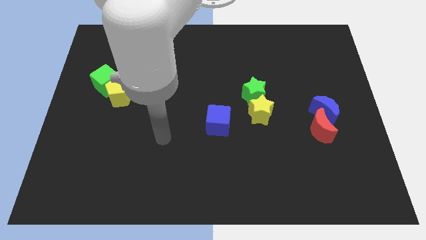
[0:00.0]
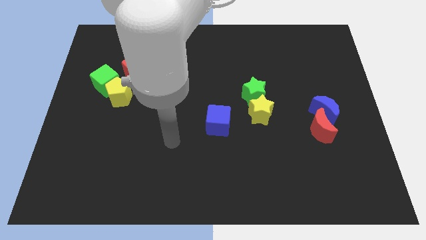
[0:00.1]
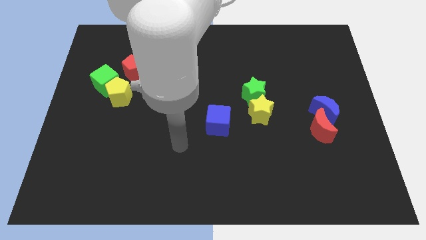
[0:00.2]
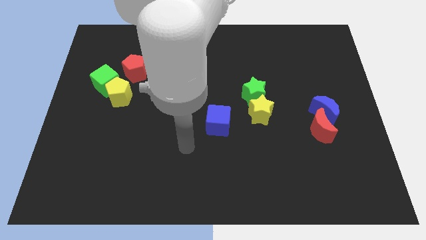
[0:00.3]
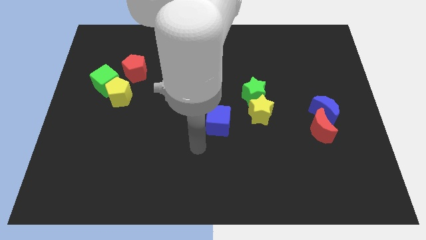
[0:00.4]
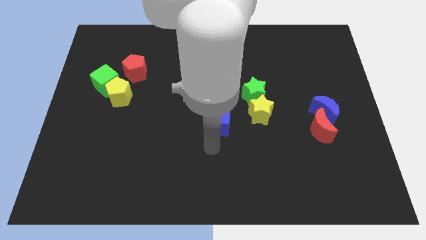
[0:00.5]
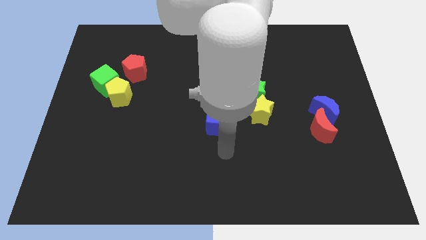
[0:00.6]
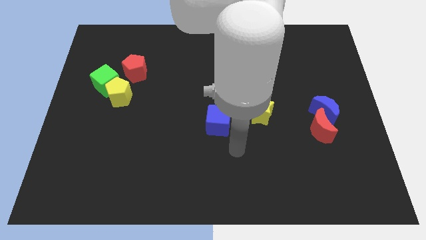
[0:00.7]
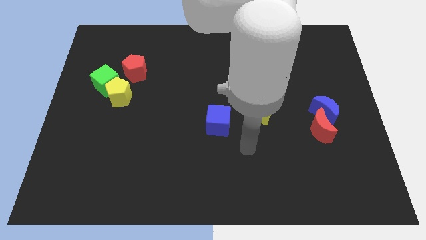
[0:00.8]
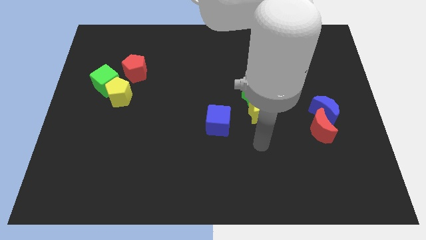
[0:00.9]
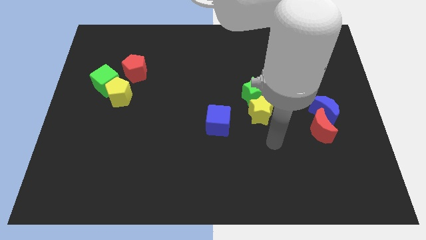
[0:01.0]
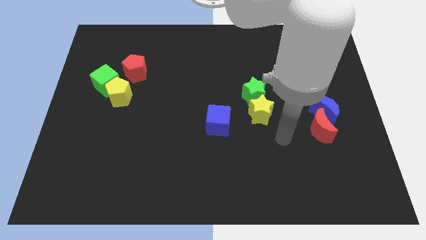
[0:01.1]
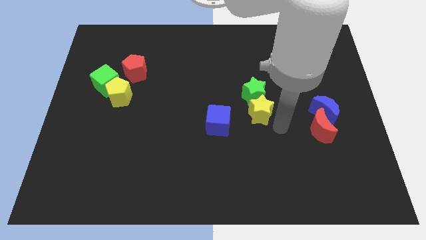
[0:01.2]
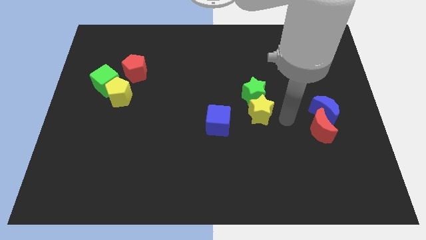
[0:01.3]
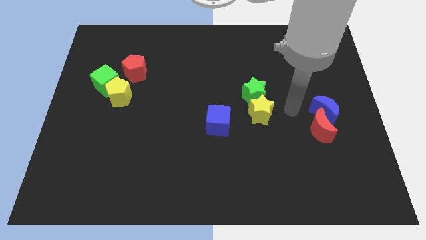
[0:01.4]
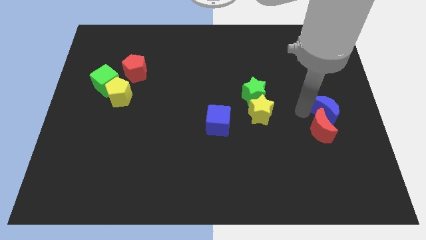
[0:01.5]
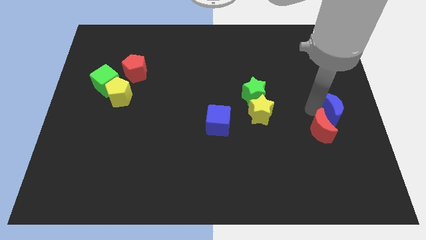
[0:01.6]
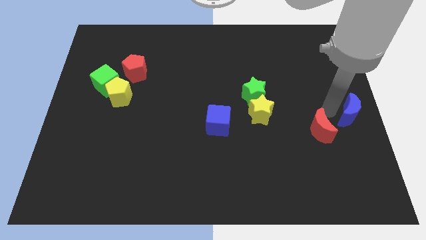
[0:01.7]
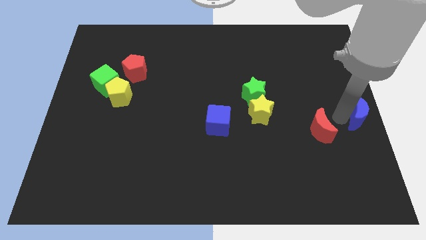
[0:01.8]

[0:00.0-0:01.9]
separate the red moon from the blue moon

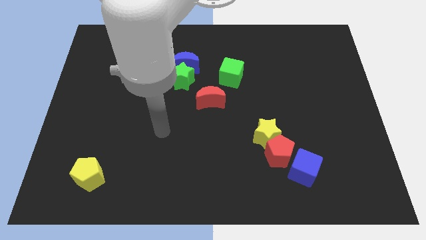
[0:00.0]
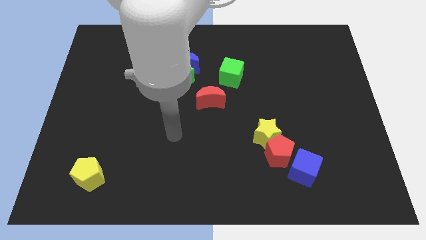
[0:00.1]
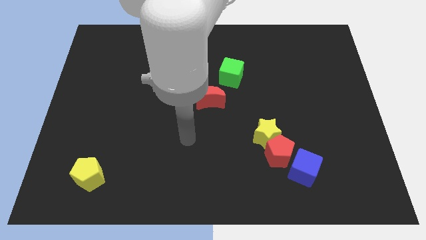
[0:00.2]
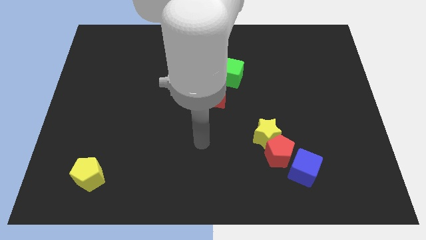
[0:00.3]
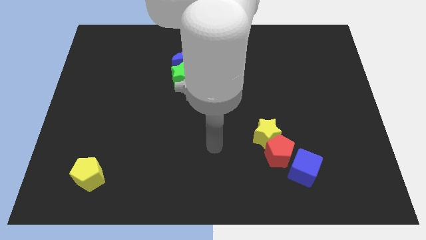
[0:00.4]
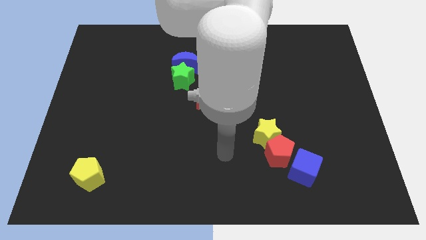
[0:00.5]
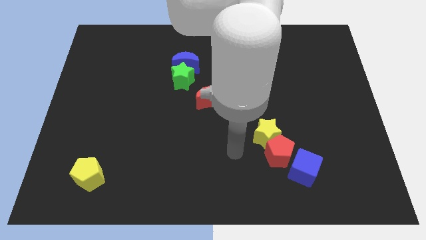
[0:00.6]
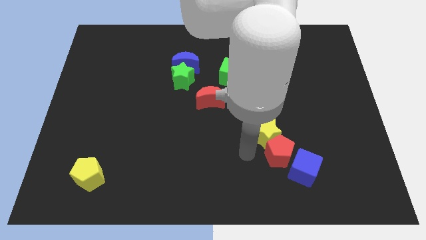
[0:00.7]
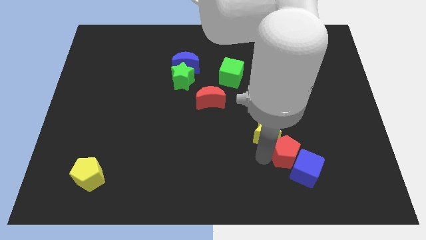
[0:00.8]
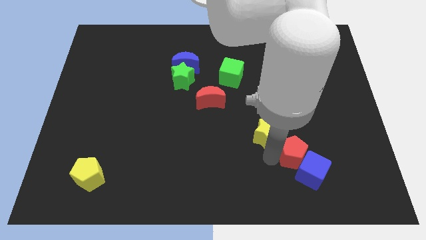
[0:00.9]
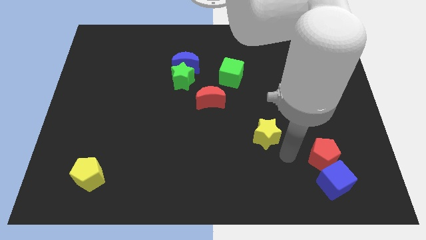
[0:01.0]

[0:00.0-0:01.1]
pull the yellow star apart from the red pentagon

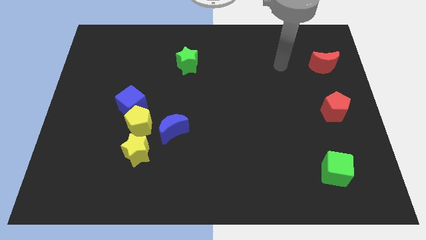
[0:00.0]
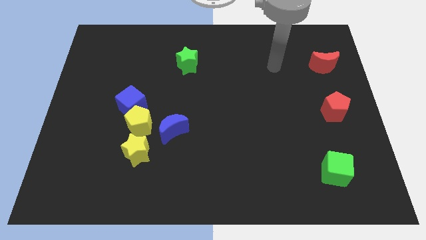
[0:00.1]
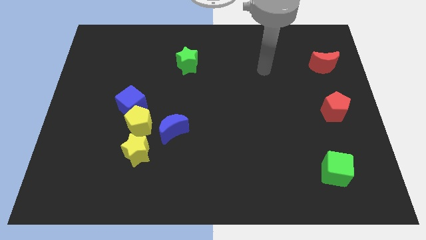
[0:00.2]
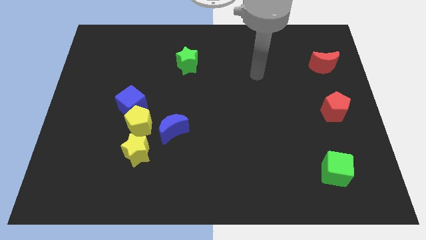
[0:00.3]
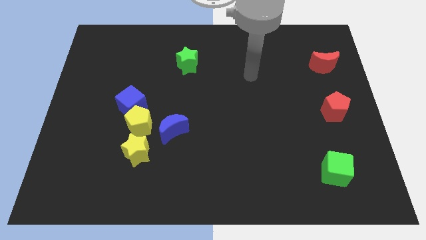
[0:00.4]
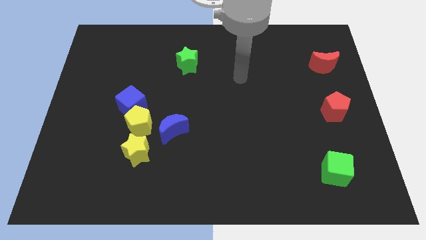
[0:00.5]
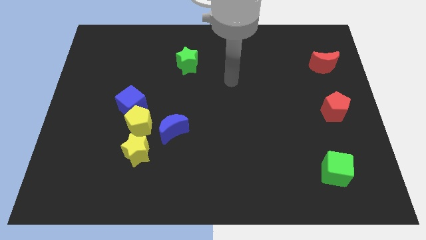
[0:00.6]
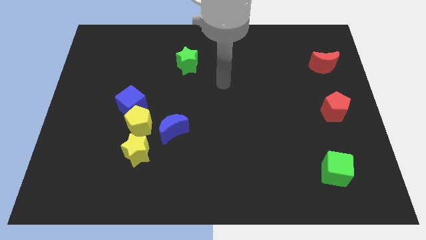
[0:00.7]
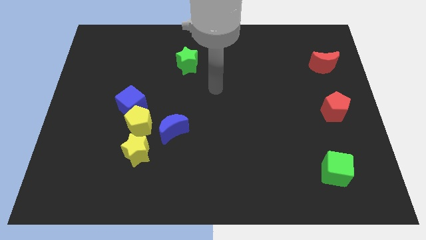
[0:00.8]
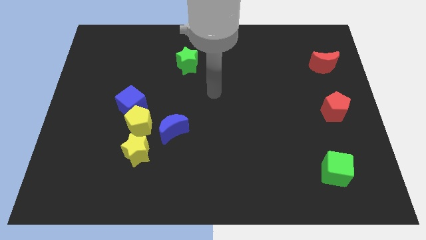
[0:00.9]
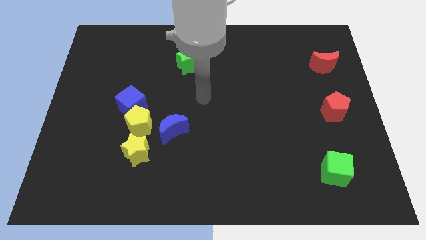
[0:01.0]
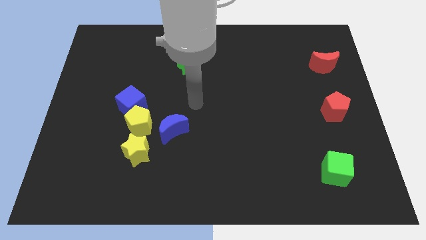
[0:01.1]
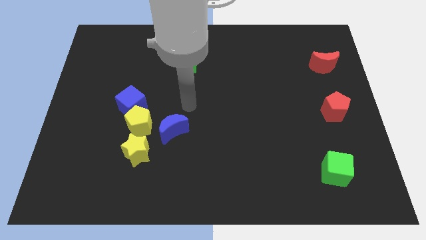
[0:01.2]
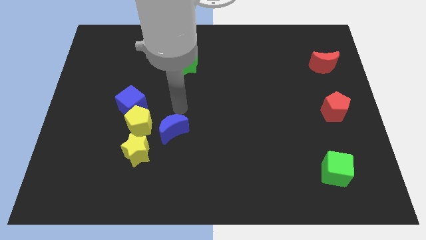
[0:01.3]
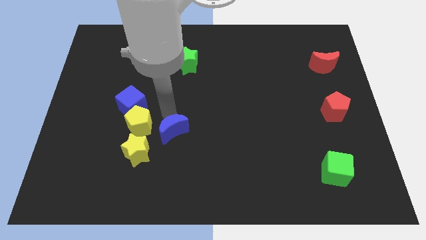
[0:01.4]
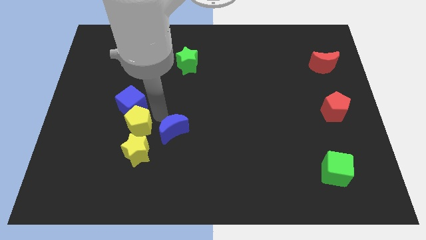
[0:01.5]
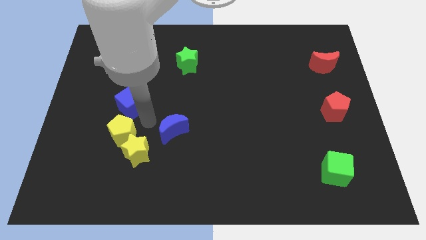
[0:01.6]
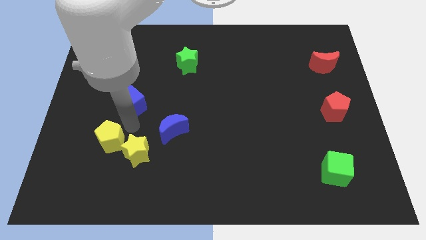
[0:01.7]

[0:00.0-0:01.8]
move the blue cube away from the yellow pentagon

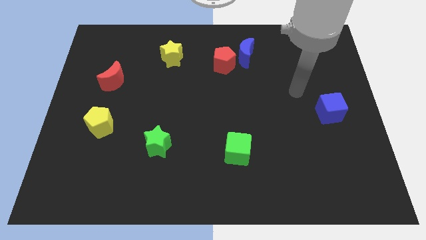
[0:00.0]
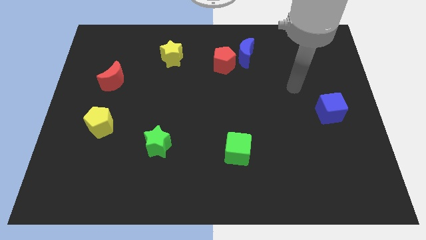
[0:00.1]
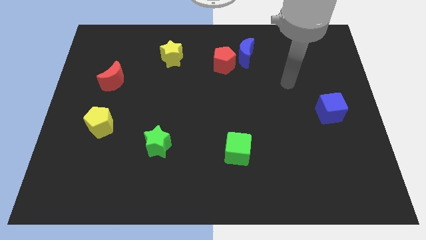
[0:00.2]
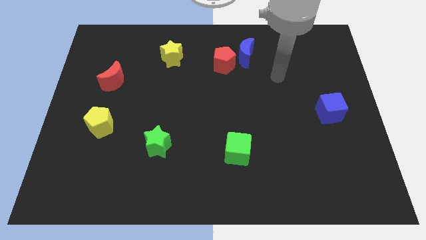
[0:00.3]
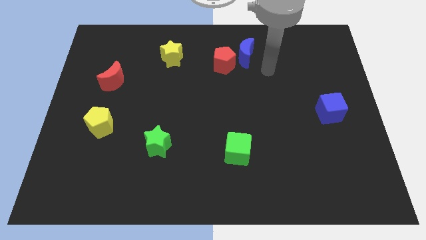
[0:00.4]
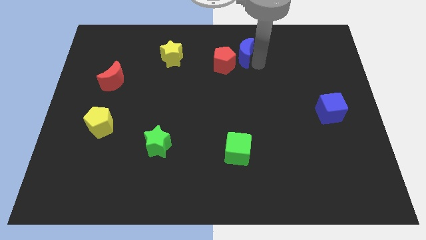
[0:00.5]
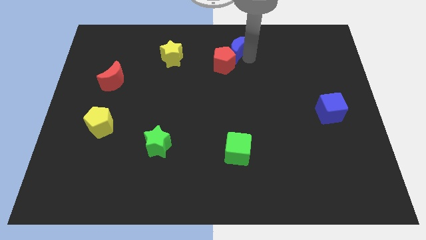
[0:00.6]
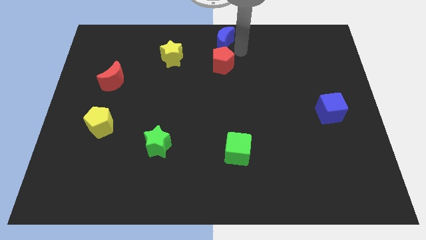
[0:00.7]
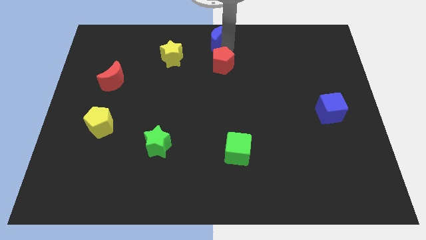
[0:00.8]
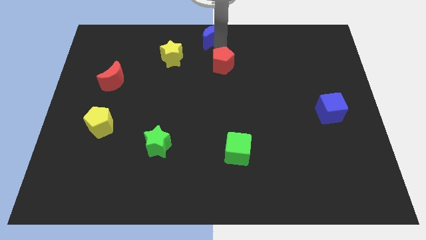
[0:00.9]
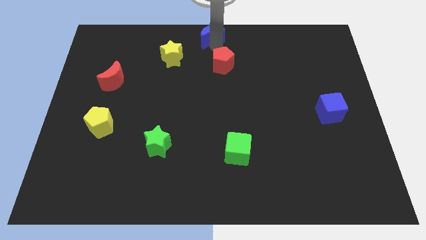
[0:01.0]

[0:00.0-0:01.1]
move the red pentagon away from the blue moon

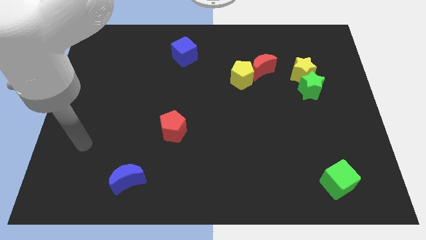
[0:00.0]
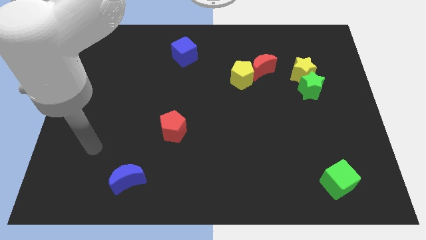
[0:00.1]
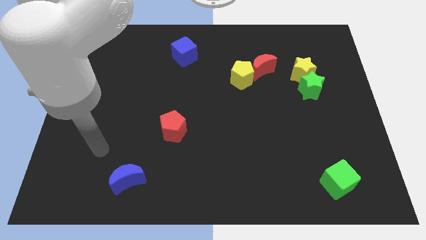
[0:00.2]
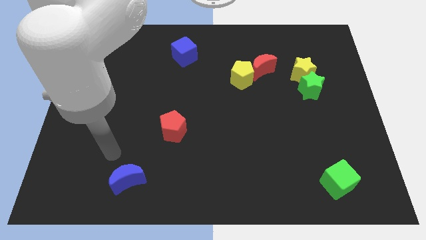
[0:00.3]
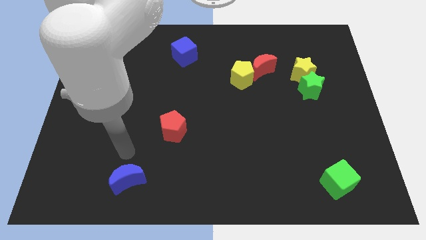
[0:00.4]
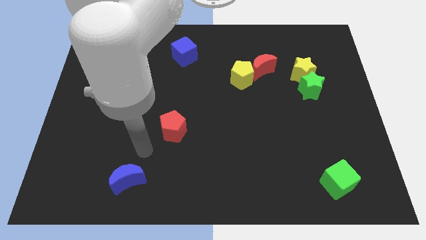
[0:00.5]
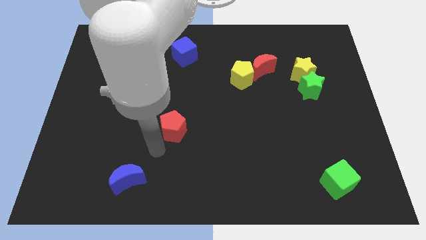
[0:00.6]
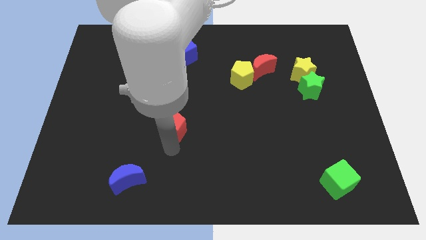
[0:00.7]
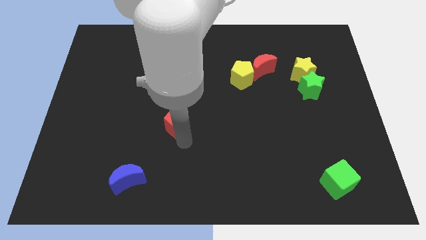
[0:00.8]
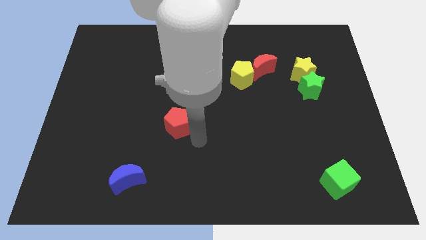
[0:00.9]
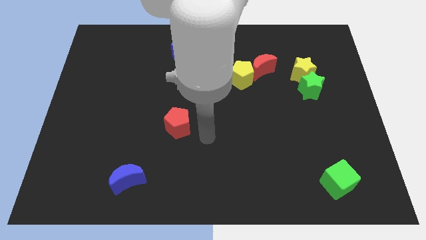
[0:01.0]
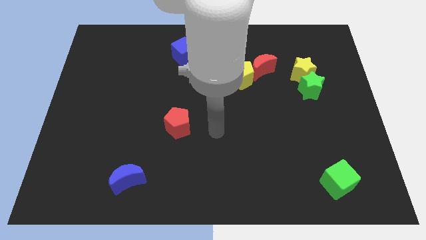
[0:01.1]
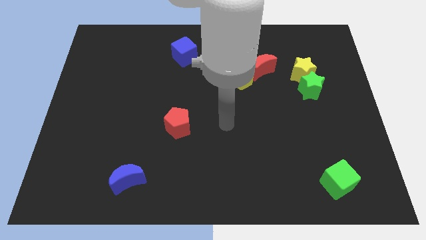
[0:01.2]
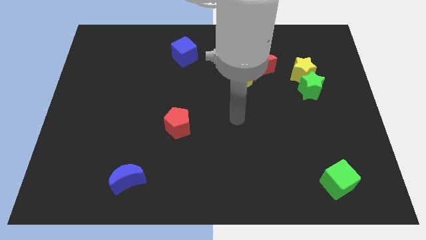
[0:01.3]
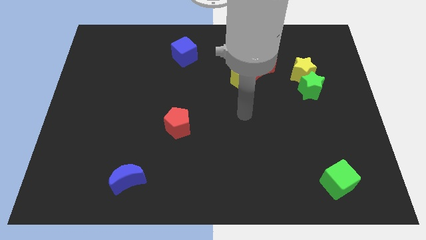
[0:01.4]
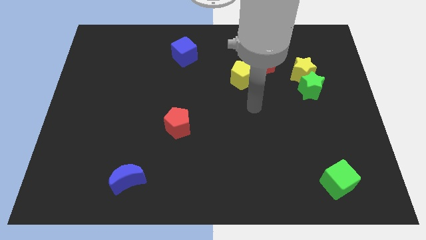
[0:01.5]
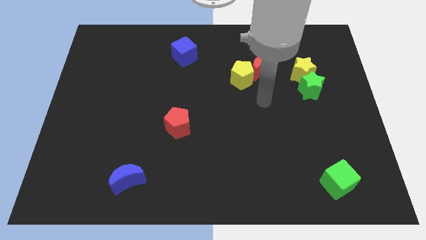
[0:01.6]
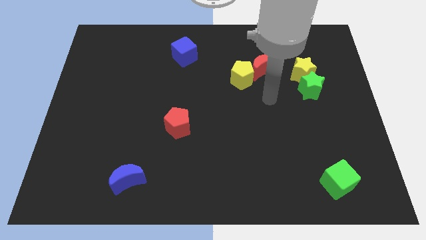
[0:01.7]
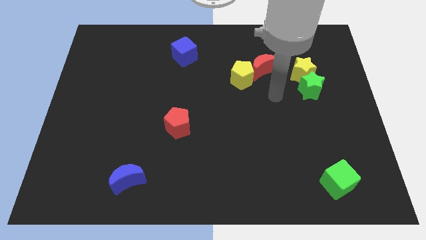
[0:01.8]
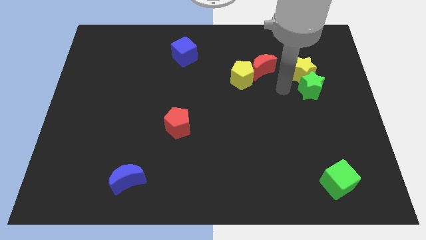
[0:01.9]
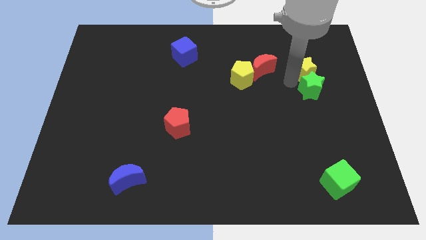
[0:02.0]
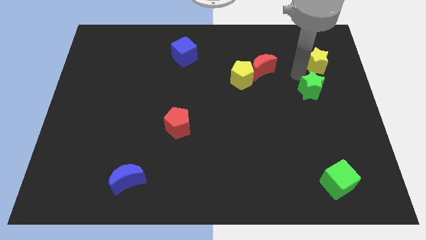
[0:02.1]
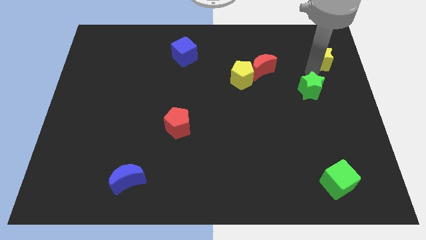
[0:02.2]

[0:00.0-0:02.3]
move the green star away from the yellow star

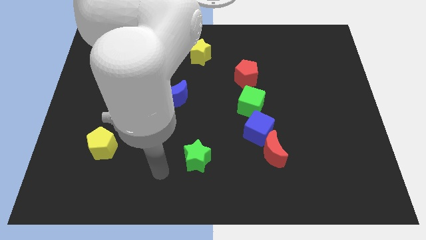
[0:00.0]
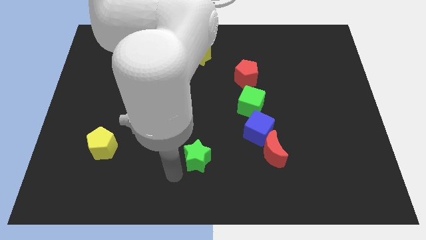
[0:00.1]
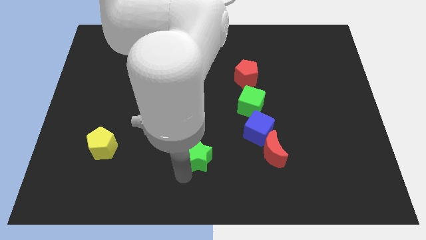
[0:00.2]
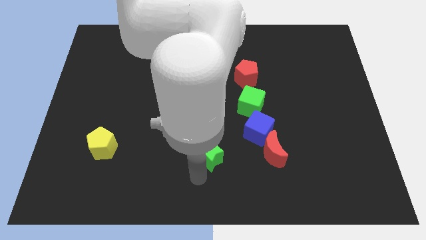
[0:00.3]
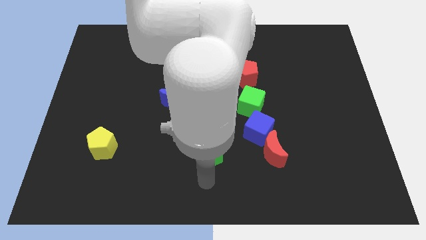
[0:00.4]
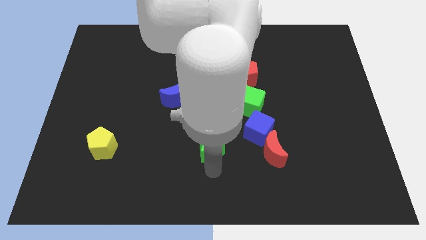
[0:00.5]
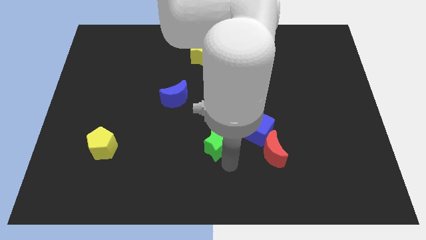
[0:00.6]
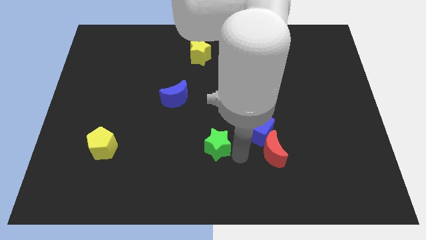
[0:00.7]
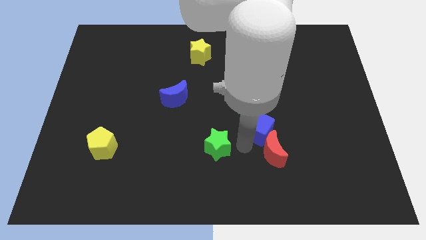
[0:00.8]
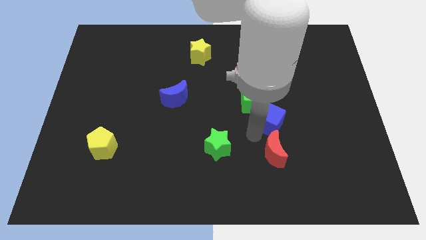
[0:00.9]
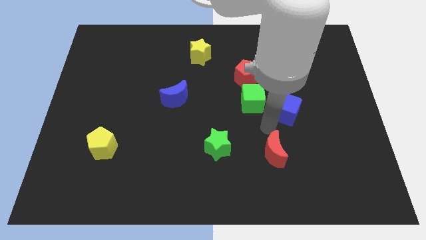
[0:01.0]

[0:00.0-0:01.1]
move the red moon away from the blue cube
